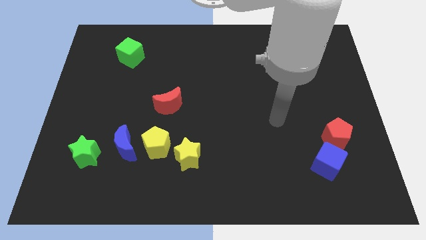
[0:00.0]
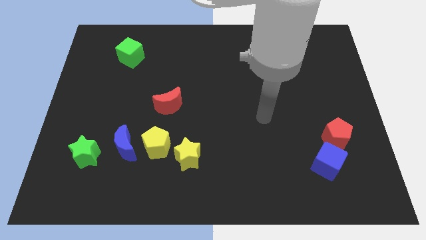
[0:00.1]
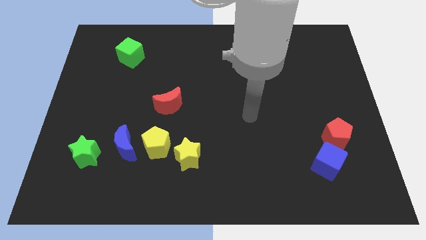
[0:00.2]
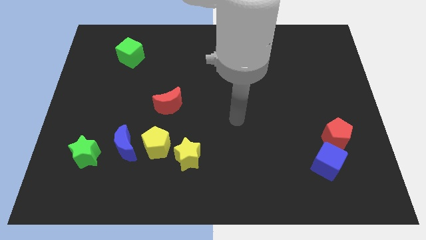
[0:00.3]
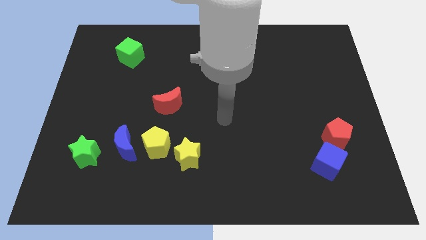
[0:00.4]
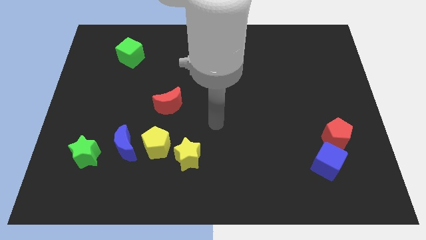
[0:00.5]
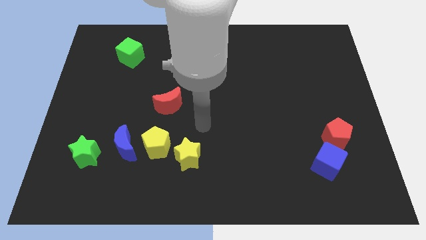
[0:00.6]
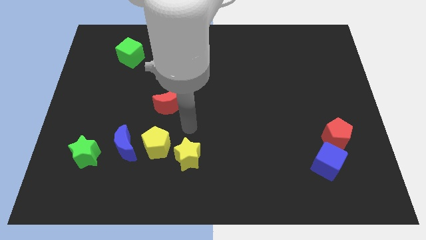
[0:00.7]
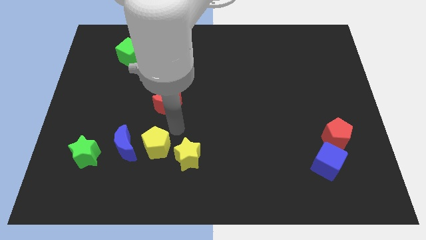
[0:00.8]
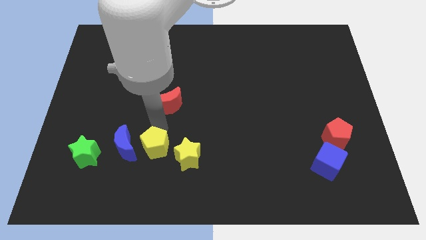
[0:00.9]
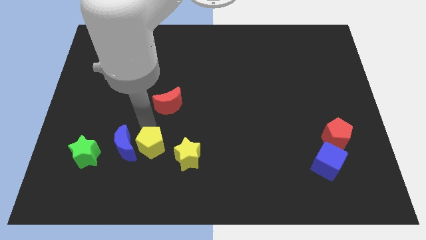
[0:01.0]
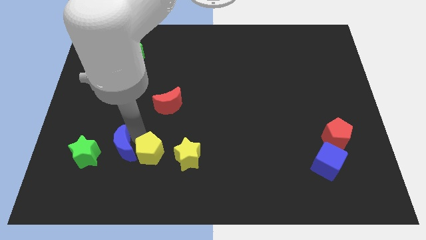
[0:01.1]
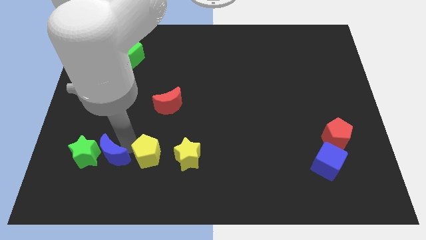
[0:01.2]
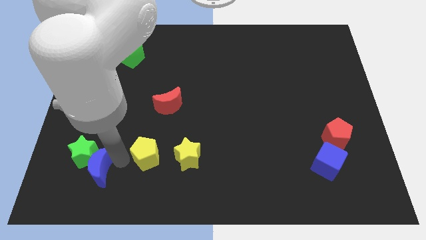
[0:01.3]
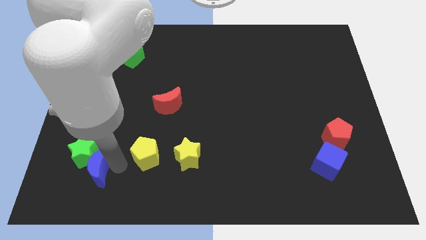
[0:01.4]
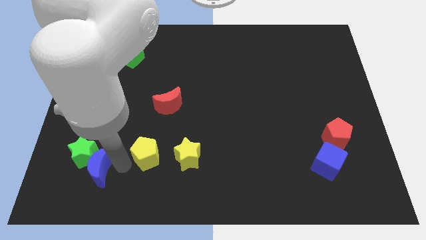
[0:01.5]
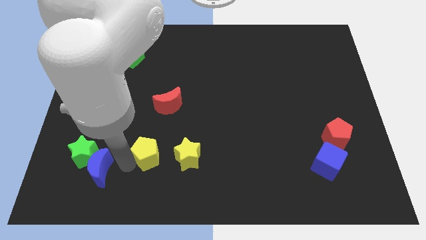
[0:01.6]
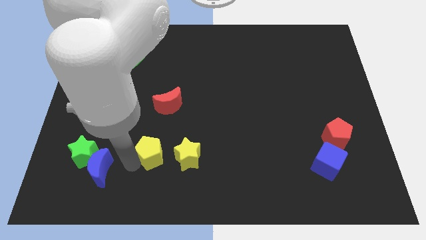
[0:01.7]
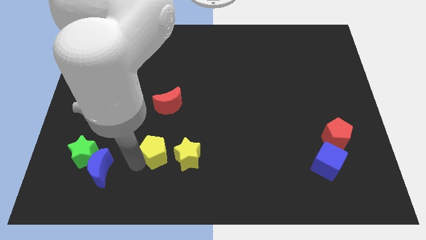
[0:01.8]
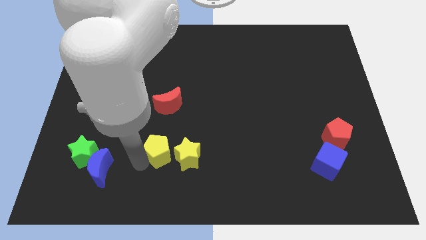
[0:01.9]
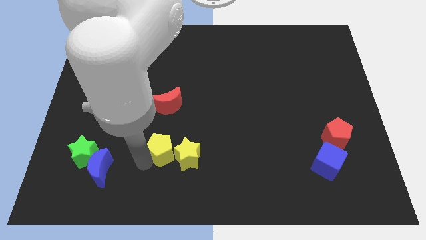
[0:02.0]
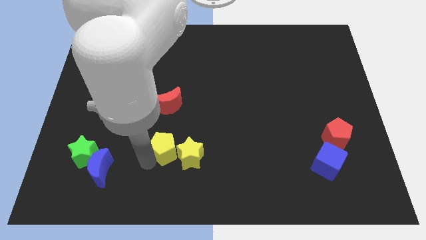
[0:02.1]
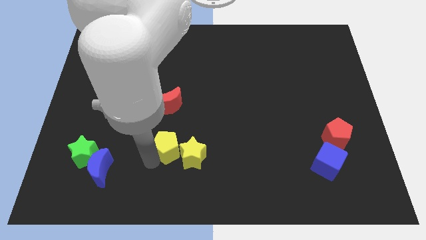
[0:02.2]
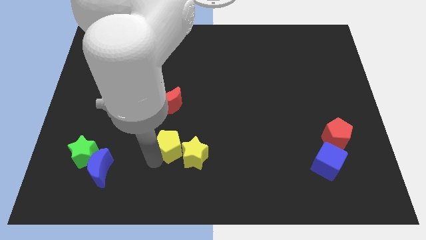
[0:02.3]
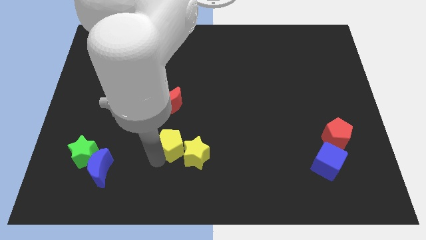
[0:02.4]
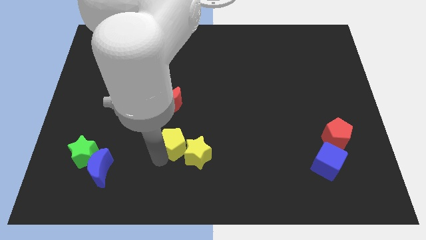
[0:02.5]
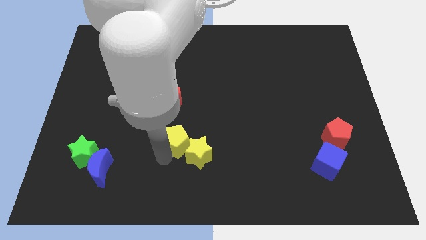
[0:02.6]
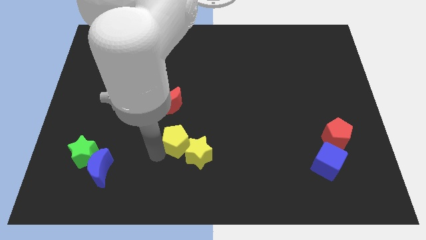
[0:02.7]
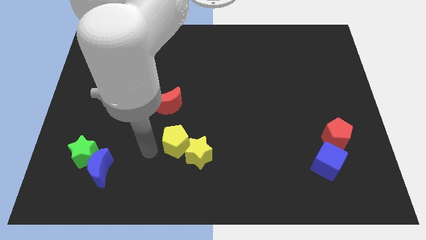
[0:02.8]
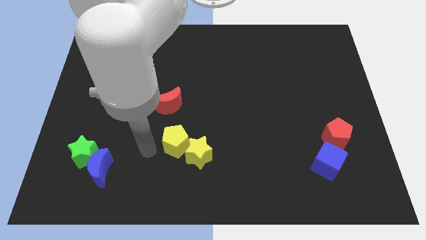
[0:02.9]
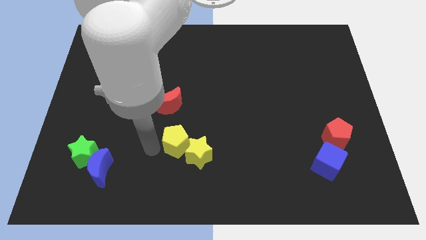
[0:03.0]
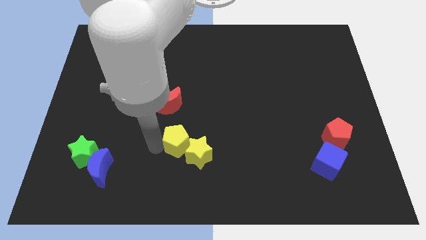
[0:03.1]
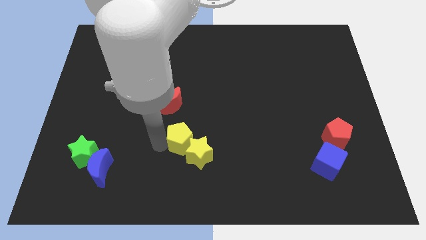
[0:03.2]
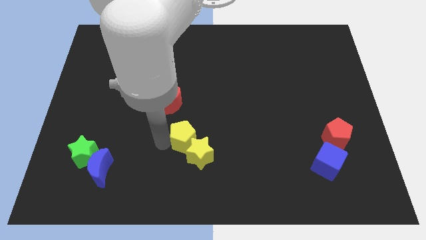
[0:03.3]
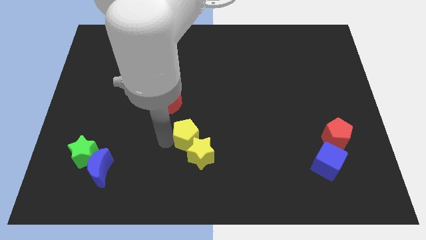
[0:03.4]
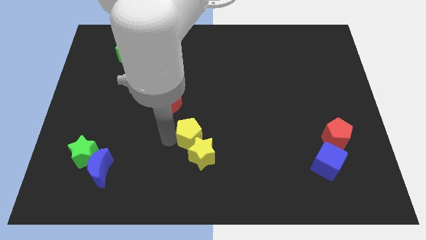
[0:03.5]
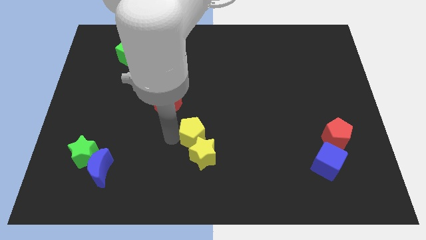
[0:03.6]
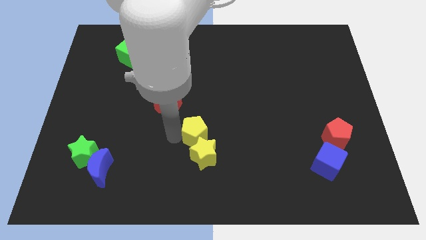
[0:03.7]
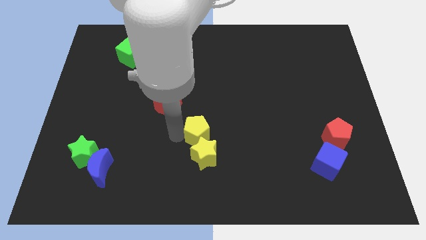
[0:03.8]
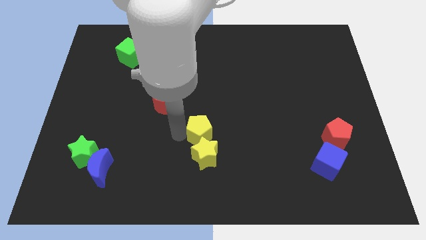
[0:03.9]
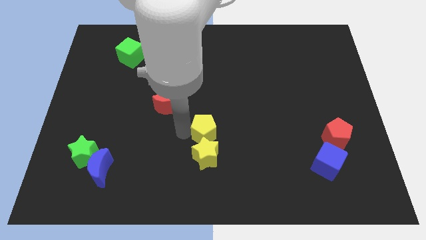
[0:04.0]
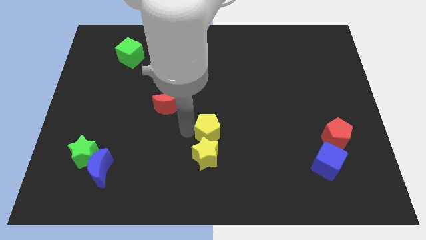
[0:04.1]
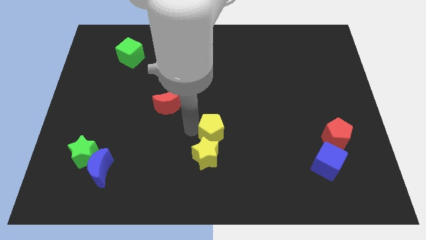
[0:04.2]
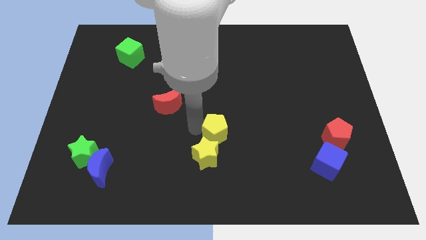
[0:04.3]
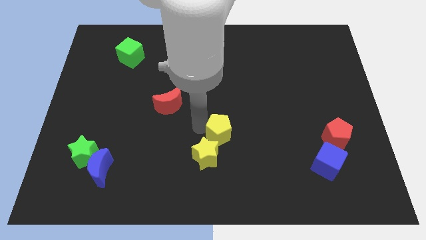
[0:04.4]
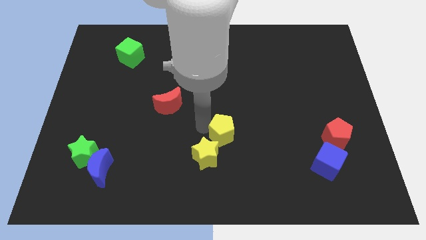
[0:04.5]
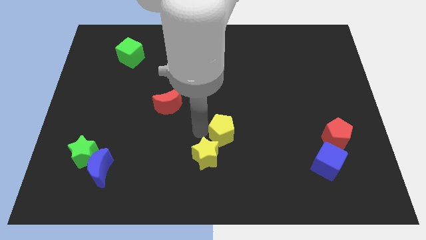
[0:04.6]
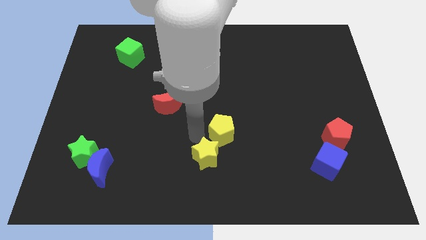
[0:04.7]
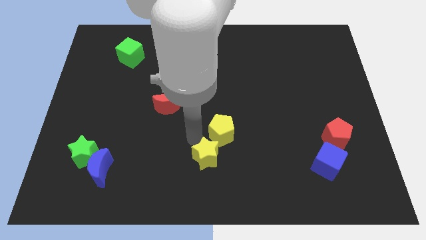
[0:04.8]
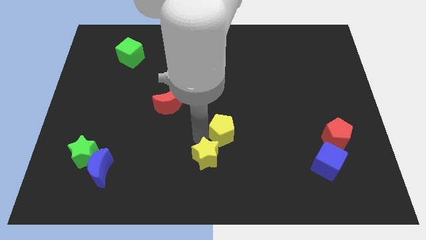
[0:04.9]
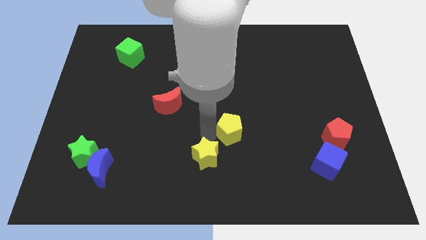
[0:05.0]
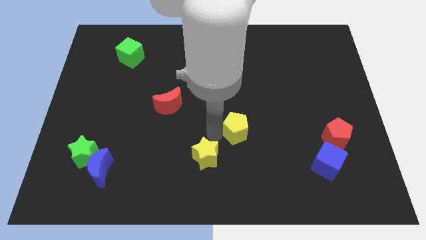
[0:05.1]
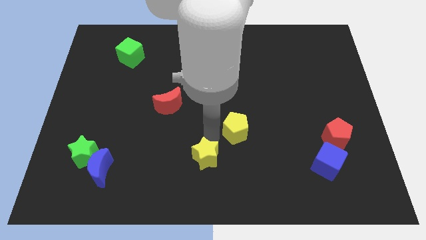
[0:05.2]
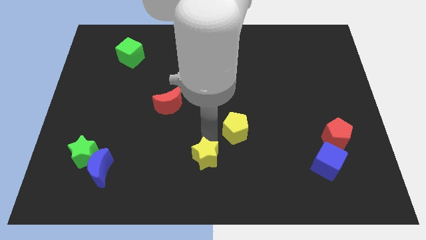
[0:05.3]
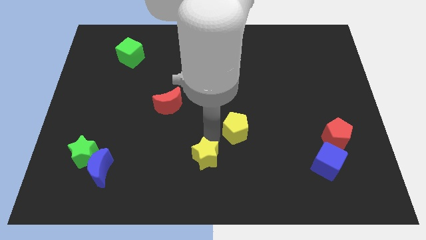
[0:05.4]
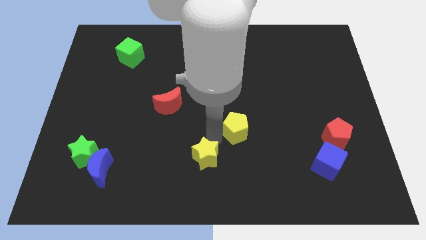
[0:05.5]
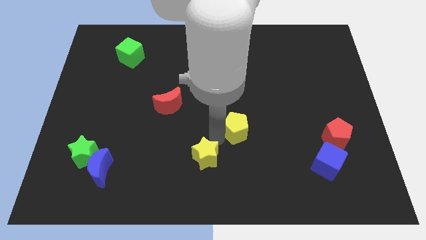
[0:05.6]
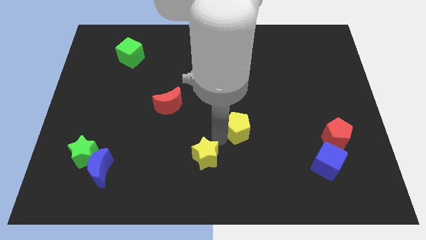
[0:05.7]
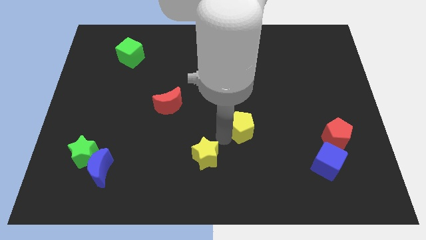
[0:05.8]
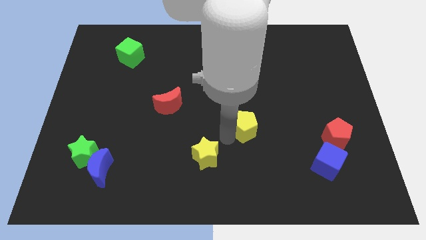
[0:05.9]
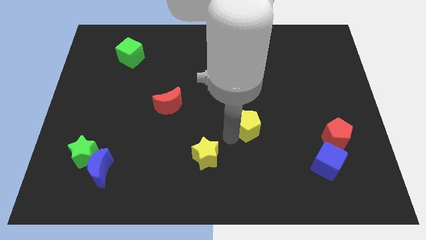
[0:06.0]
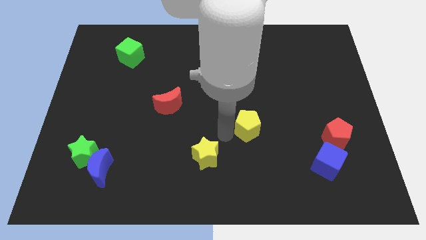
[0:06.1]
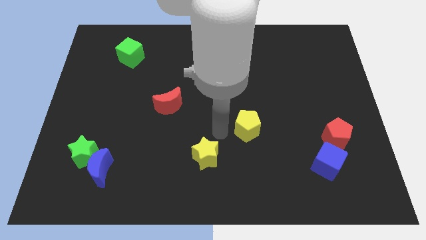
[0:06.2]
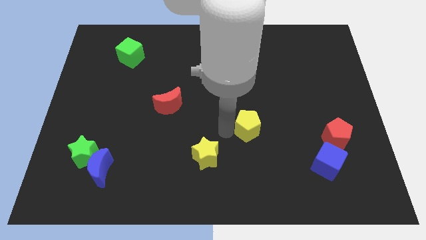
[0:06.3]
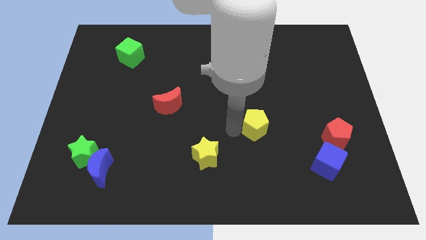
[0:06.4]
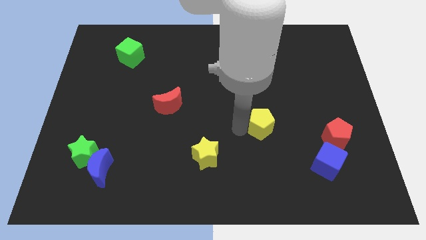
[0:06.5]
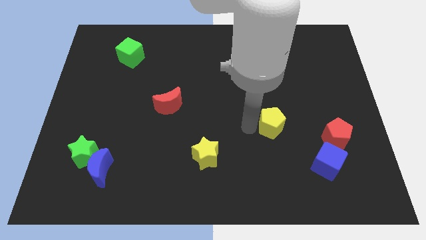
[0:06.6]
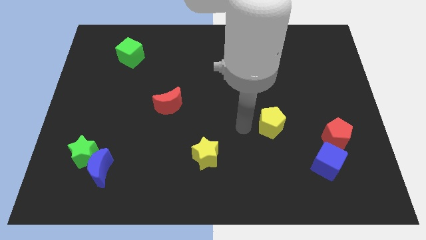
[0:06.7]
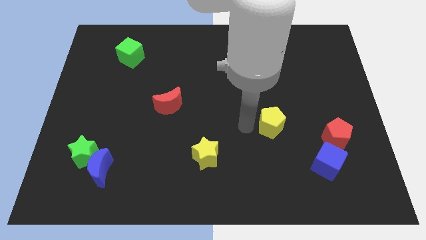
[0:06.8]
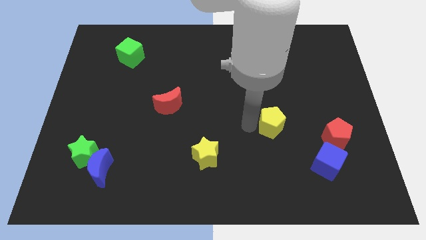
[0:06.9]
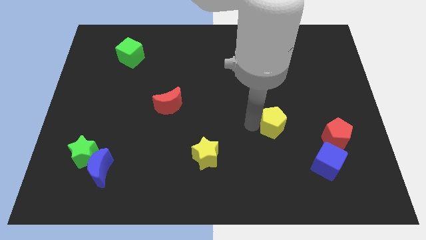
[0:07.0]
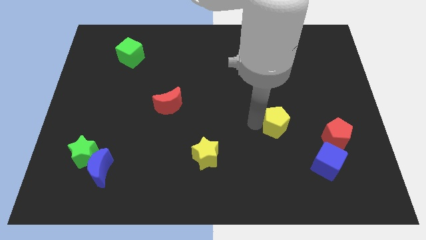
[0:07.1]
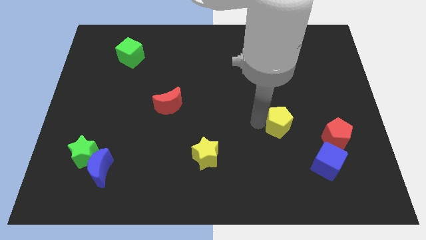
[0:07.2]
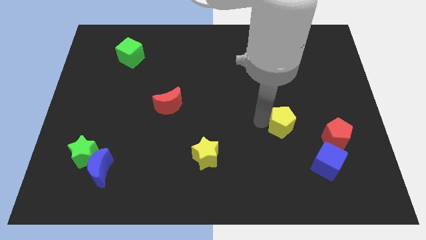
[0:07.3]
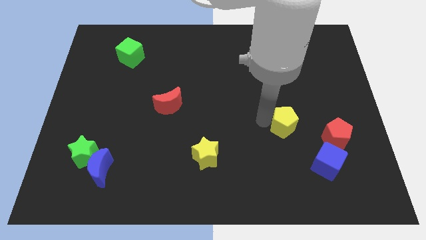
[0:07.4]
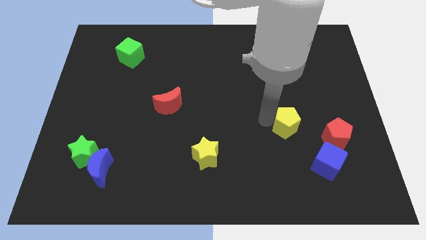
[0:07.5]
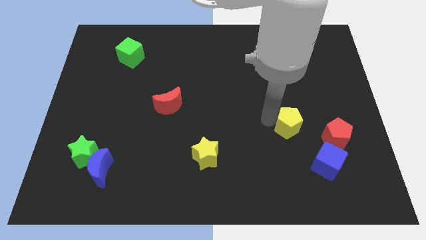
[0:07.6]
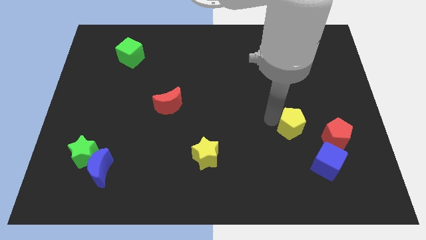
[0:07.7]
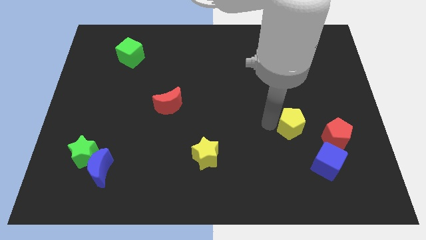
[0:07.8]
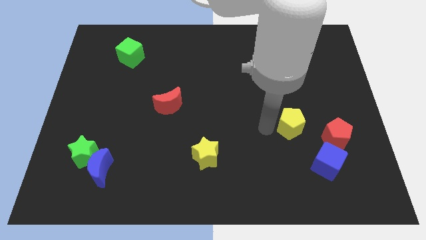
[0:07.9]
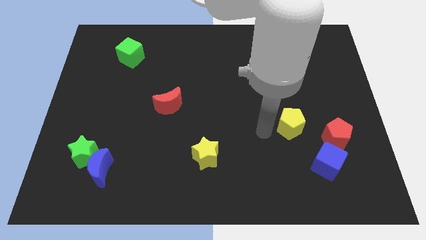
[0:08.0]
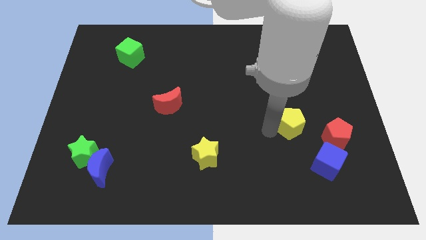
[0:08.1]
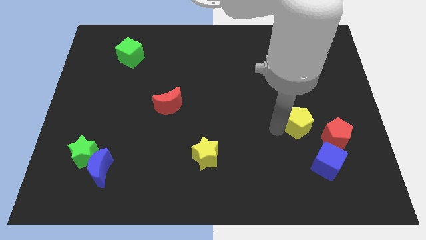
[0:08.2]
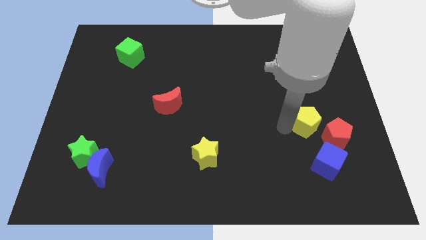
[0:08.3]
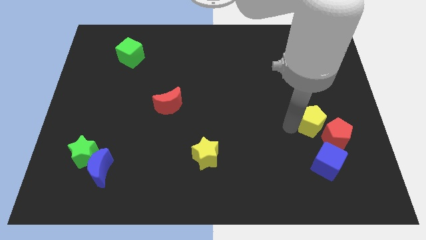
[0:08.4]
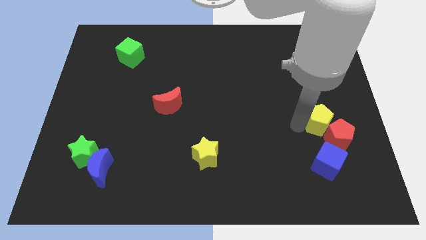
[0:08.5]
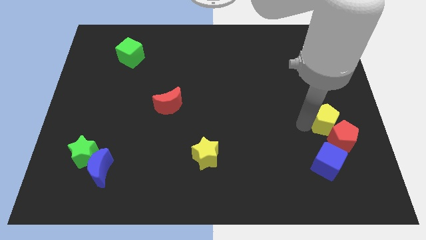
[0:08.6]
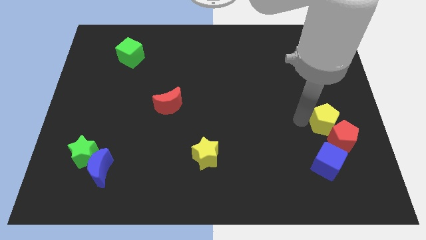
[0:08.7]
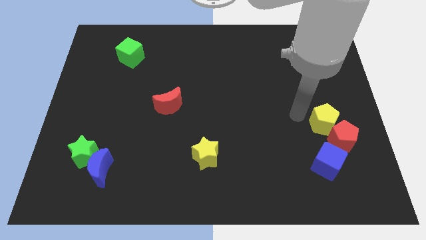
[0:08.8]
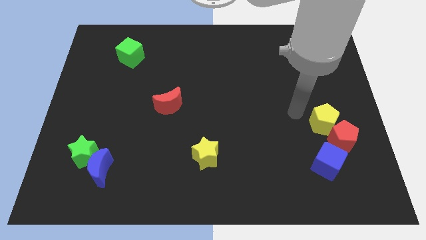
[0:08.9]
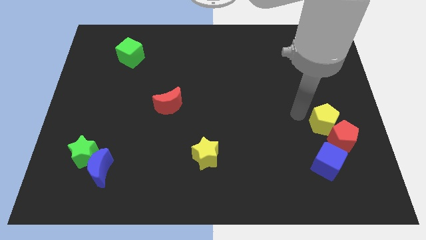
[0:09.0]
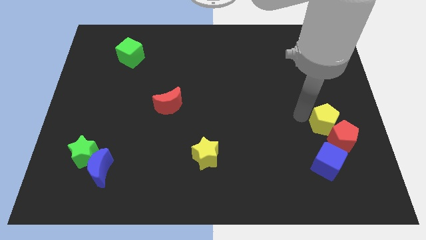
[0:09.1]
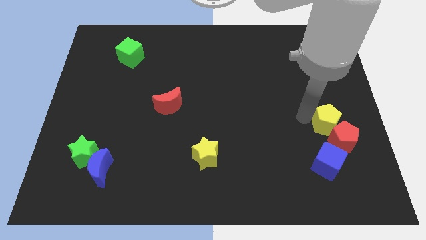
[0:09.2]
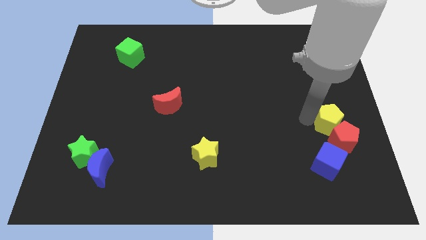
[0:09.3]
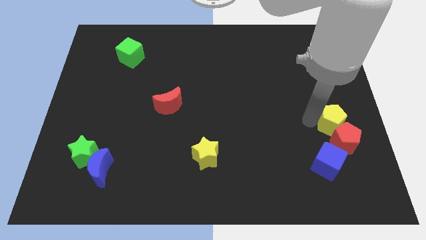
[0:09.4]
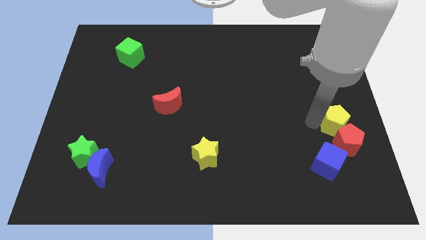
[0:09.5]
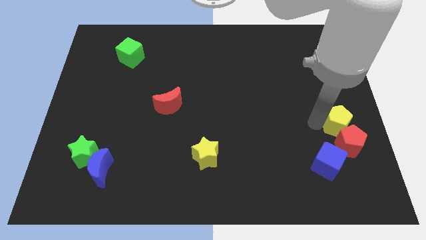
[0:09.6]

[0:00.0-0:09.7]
slide the yellow pentagon diagonally up and to the right of the blue cube
